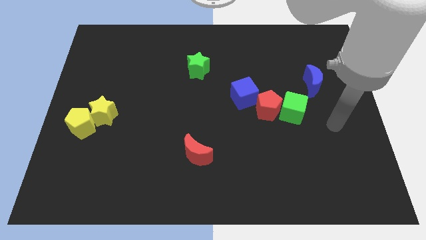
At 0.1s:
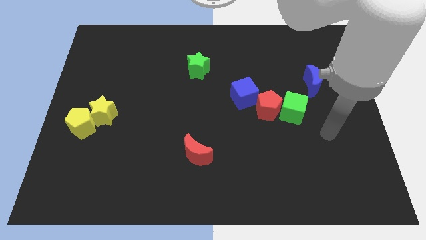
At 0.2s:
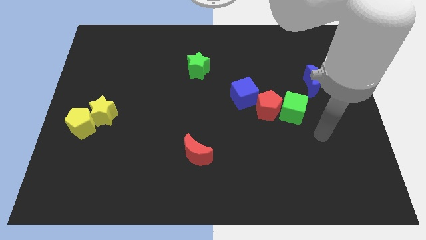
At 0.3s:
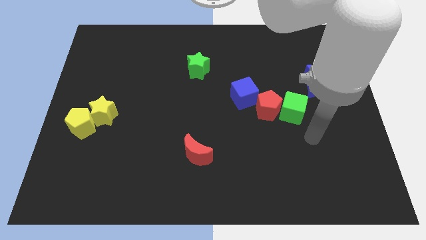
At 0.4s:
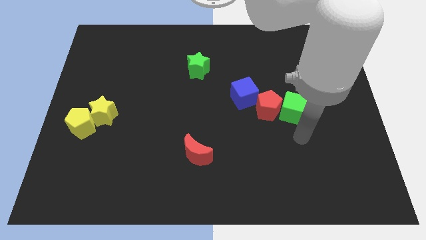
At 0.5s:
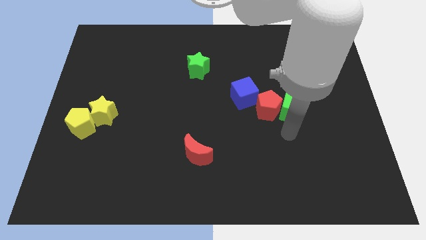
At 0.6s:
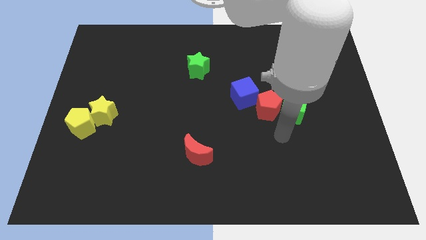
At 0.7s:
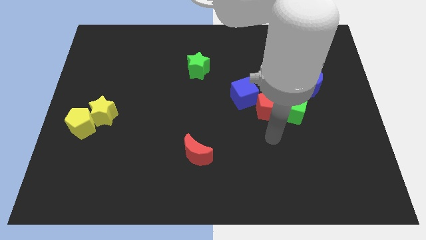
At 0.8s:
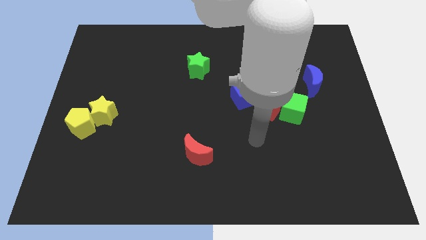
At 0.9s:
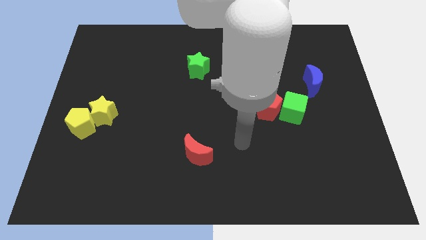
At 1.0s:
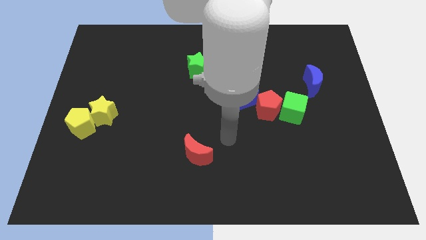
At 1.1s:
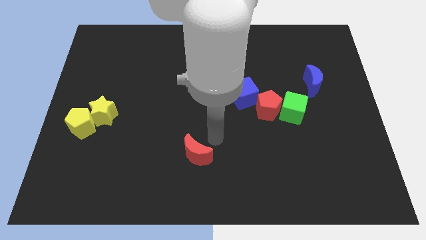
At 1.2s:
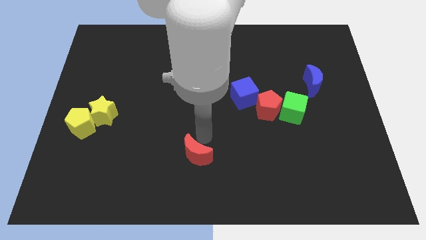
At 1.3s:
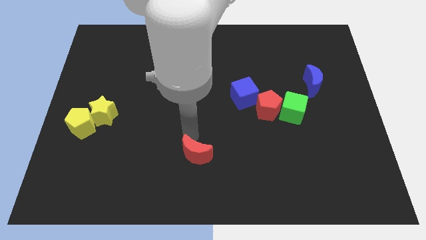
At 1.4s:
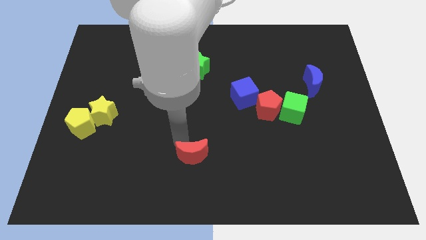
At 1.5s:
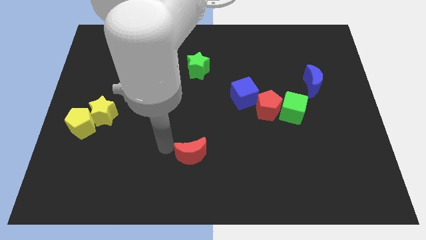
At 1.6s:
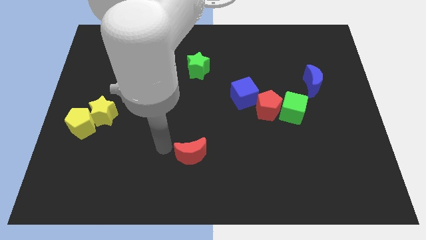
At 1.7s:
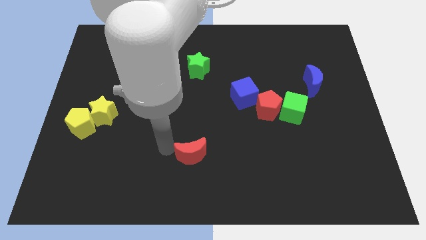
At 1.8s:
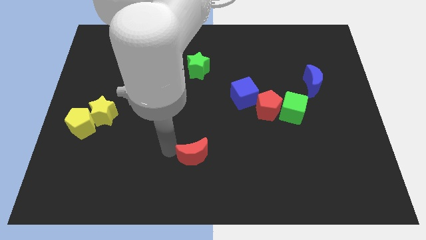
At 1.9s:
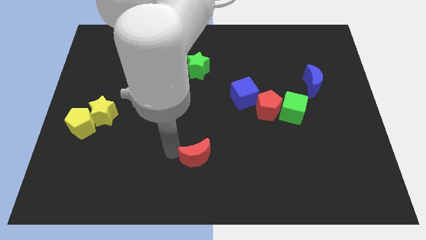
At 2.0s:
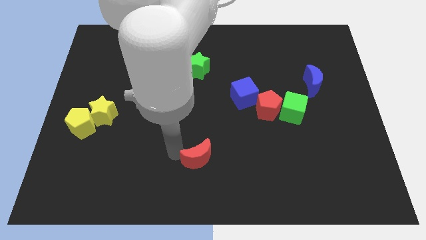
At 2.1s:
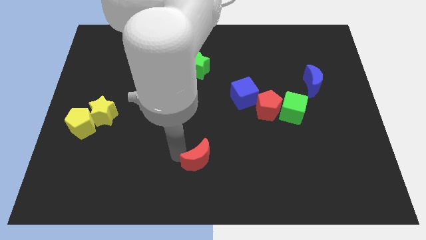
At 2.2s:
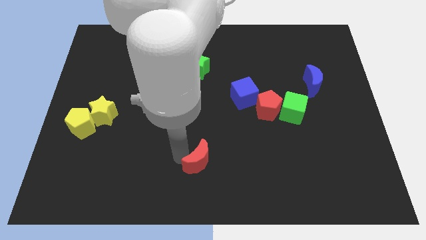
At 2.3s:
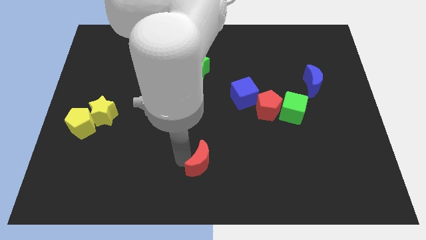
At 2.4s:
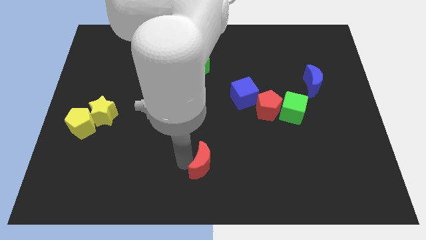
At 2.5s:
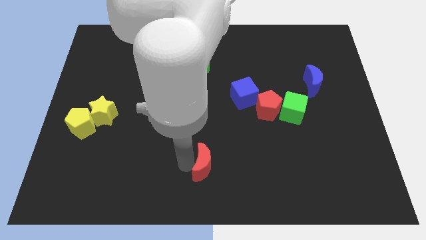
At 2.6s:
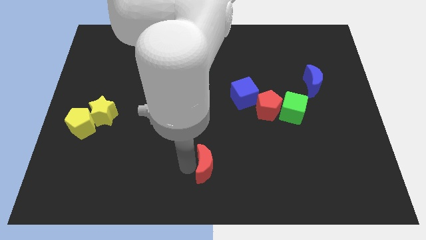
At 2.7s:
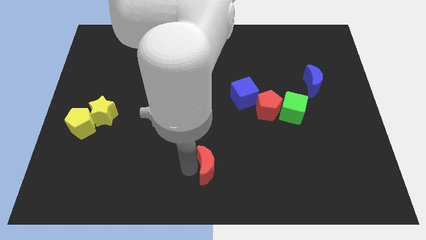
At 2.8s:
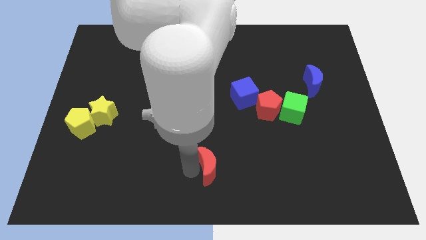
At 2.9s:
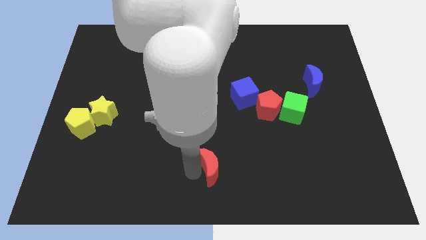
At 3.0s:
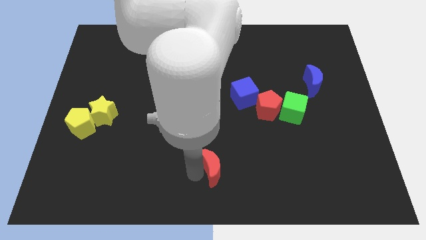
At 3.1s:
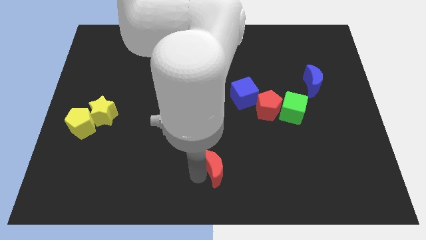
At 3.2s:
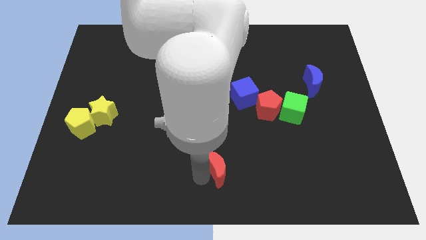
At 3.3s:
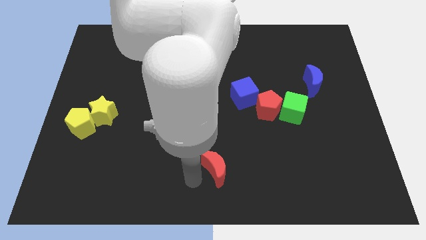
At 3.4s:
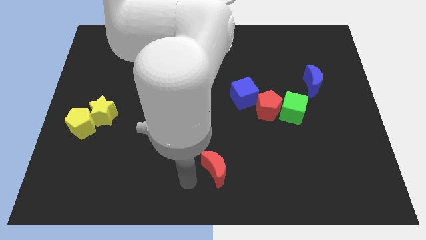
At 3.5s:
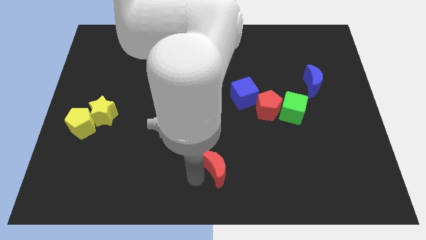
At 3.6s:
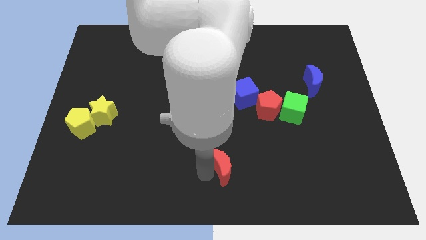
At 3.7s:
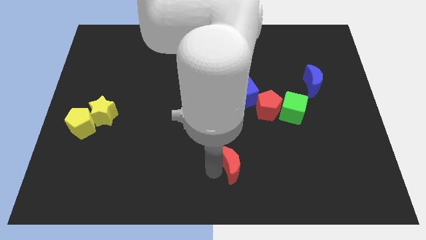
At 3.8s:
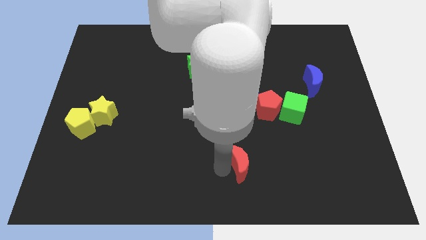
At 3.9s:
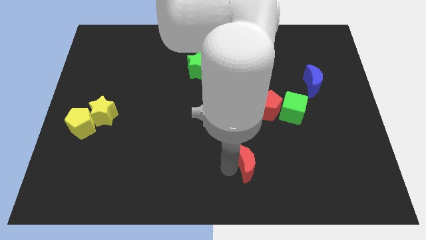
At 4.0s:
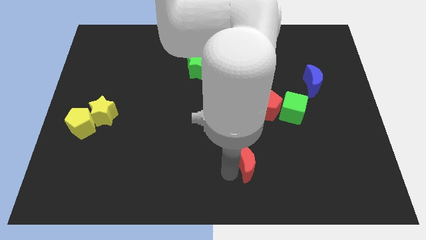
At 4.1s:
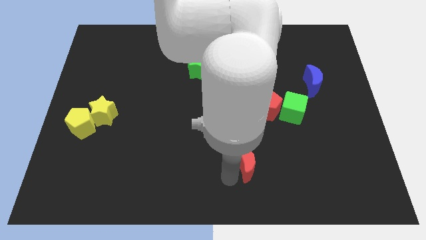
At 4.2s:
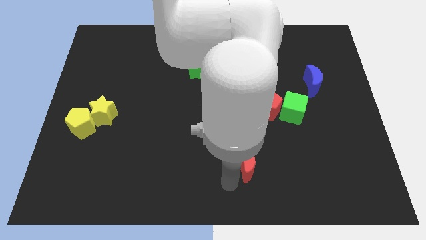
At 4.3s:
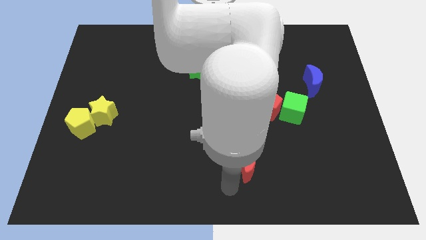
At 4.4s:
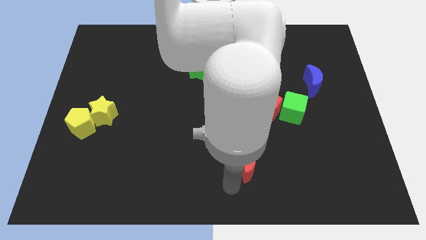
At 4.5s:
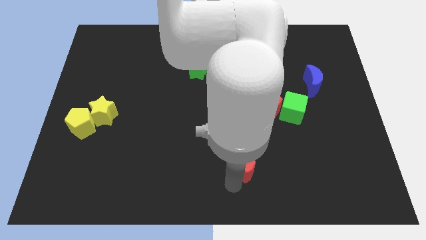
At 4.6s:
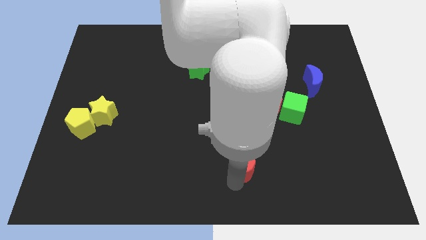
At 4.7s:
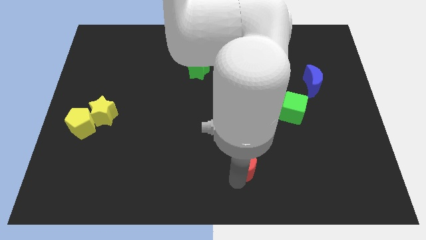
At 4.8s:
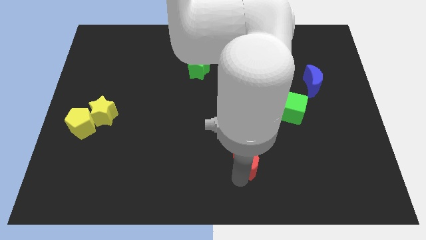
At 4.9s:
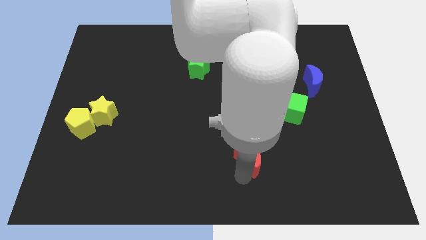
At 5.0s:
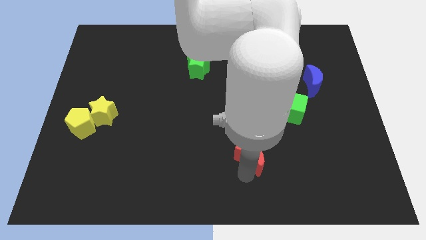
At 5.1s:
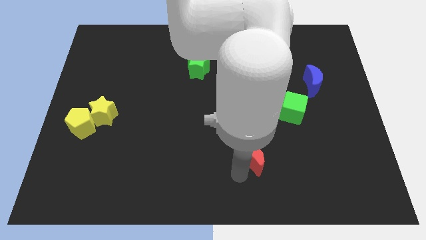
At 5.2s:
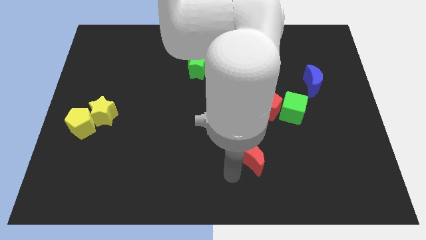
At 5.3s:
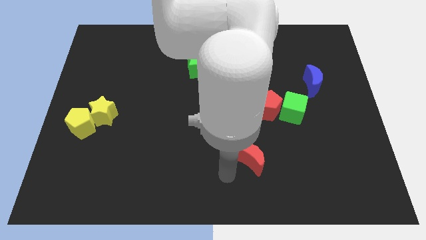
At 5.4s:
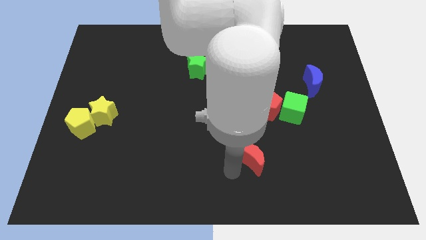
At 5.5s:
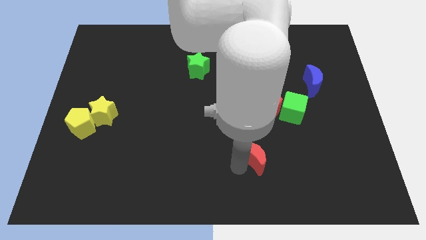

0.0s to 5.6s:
move the red moon to the bottom side of the red pentagon

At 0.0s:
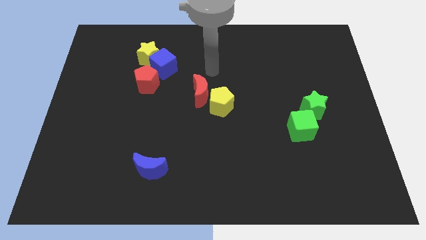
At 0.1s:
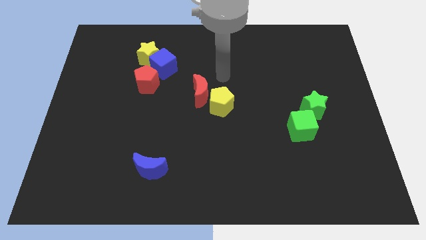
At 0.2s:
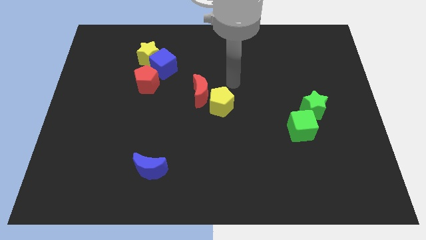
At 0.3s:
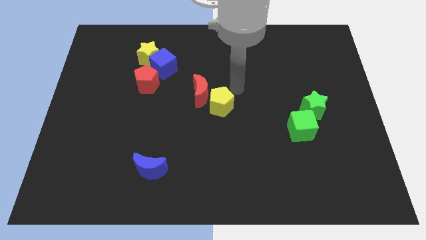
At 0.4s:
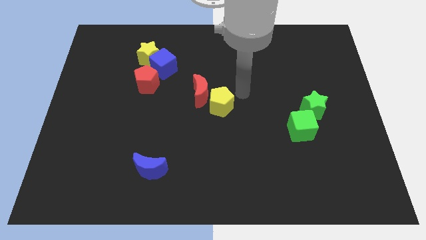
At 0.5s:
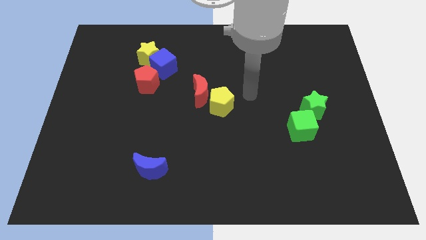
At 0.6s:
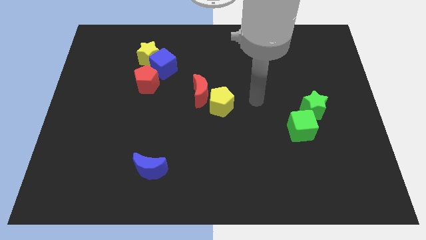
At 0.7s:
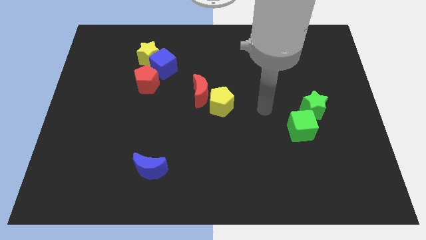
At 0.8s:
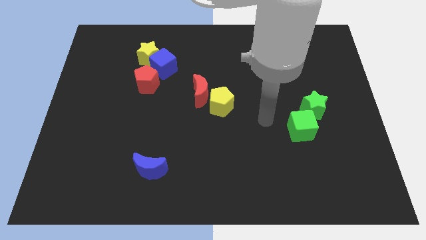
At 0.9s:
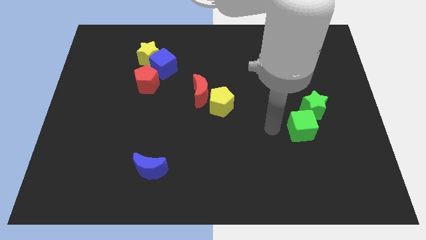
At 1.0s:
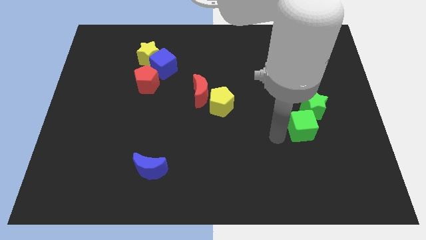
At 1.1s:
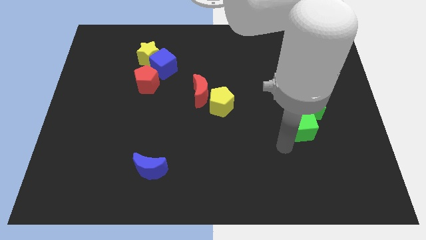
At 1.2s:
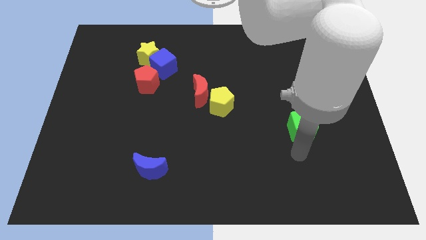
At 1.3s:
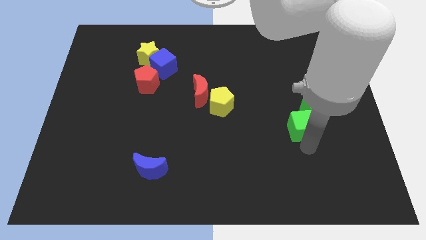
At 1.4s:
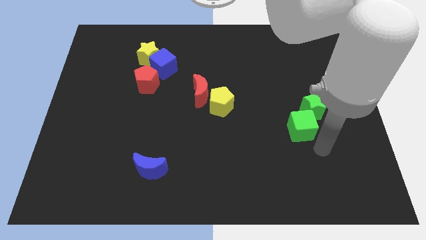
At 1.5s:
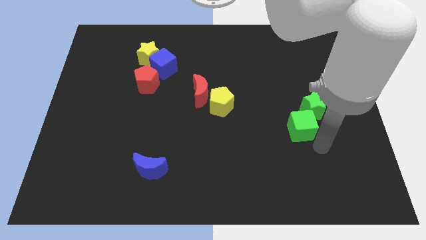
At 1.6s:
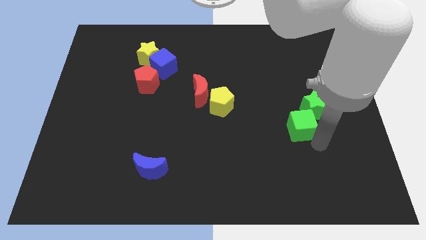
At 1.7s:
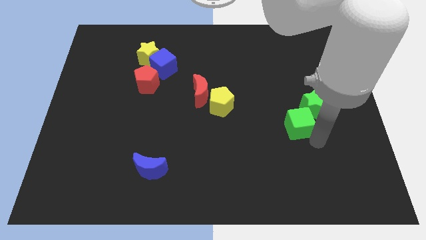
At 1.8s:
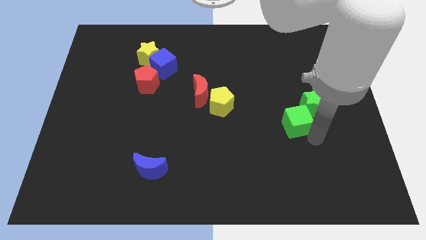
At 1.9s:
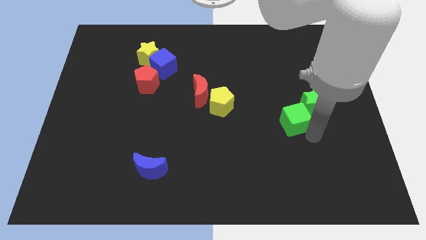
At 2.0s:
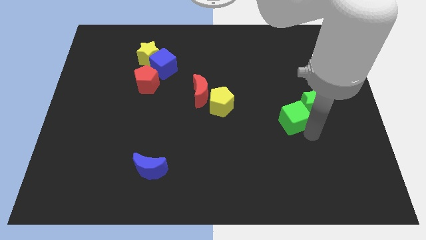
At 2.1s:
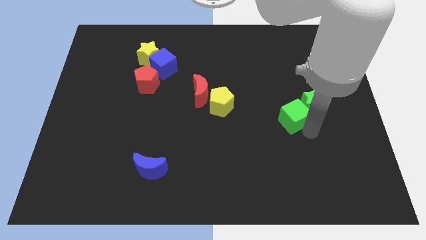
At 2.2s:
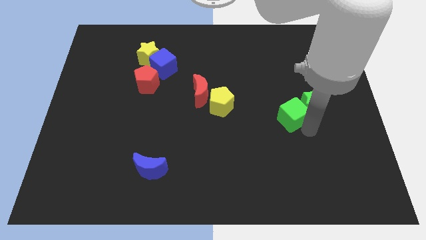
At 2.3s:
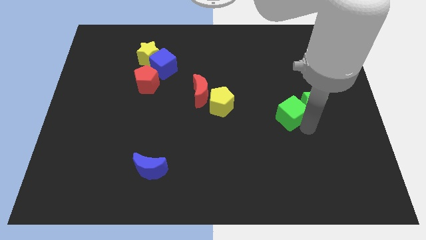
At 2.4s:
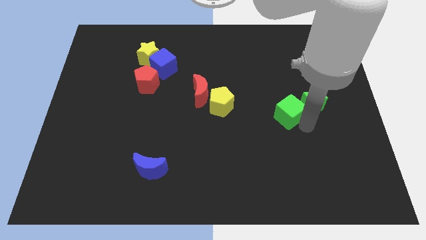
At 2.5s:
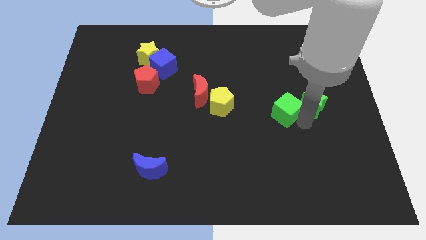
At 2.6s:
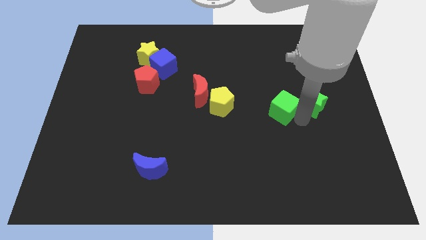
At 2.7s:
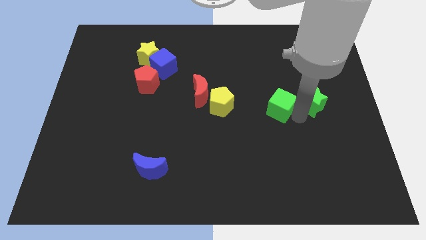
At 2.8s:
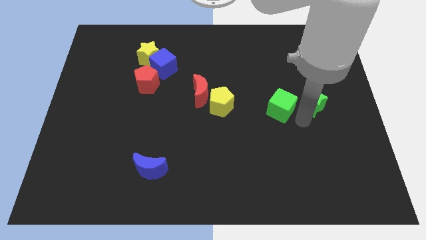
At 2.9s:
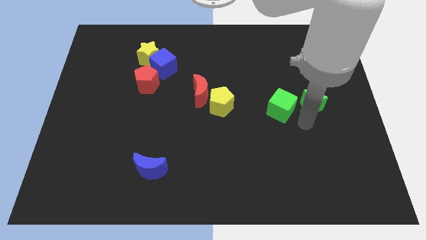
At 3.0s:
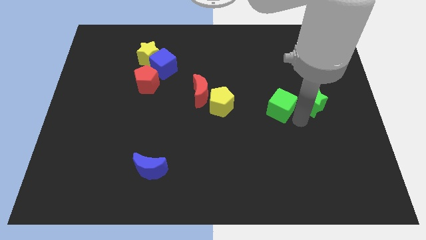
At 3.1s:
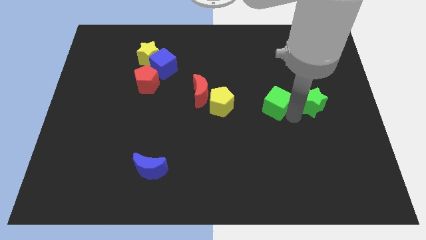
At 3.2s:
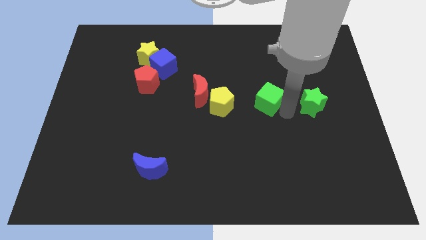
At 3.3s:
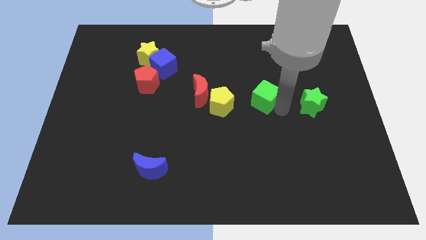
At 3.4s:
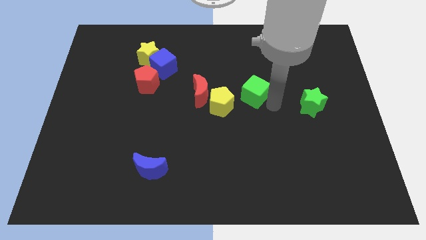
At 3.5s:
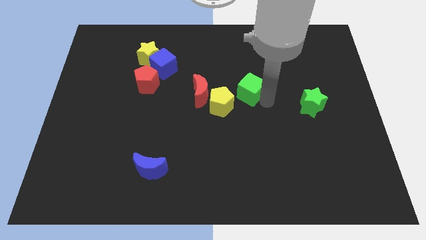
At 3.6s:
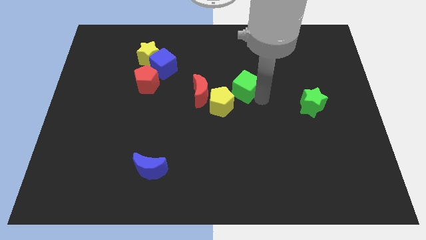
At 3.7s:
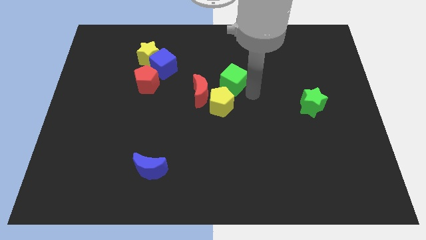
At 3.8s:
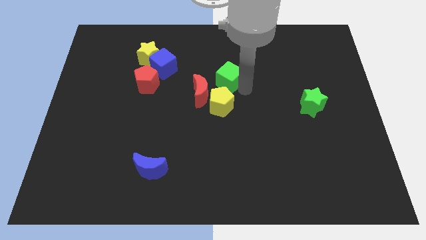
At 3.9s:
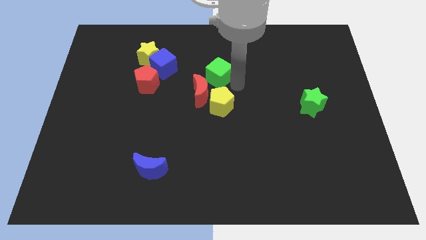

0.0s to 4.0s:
push the green cube to the right side of the blue cube
